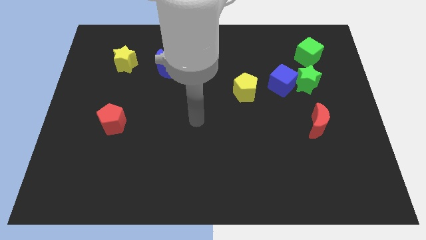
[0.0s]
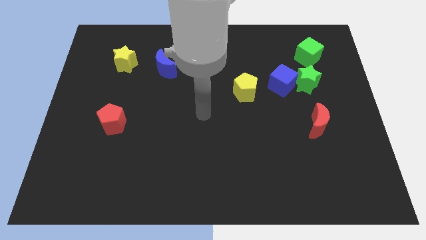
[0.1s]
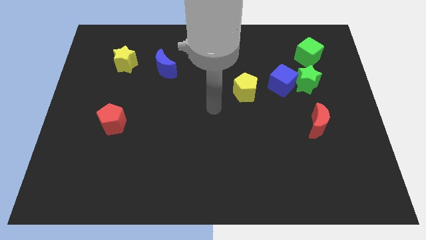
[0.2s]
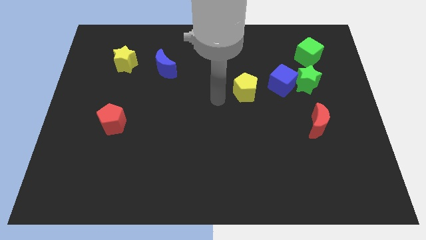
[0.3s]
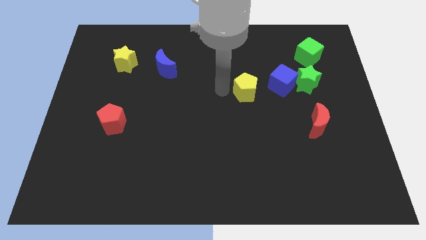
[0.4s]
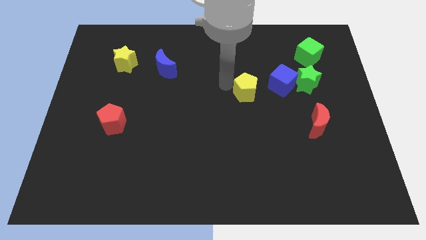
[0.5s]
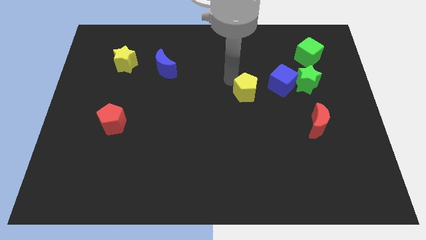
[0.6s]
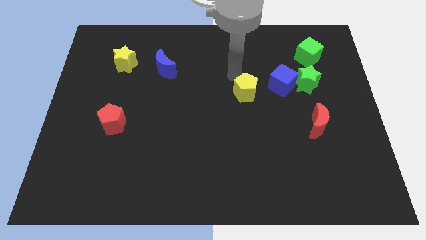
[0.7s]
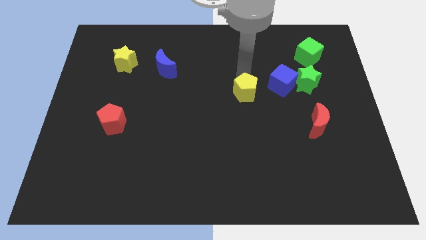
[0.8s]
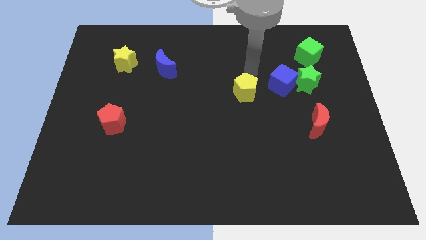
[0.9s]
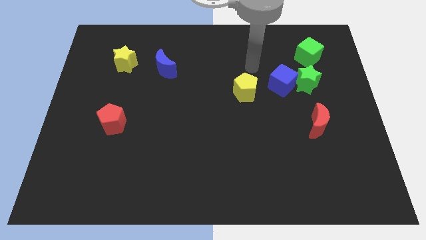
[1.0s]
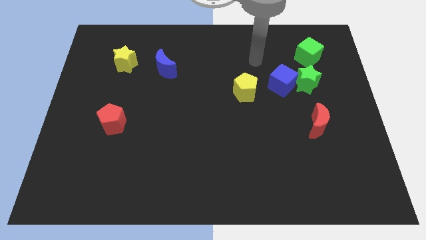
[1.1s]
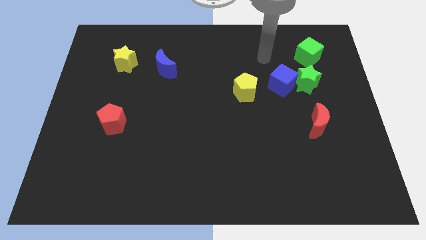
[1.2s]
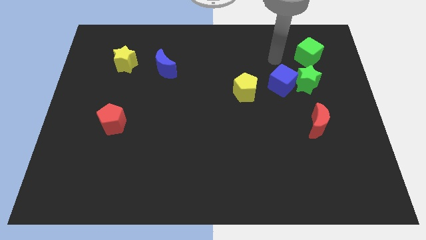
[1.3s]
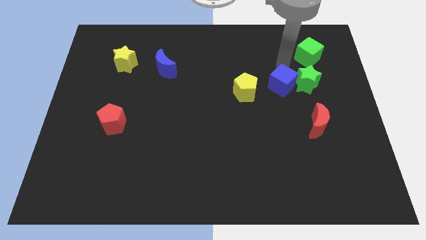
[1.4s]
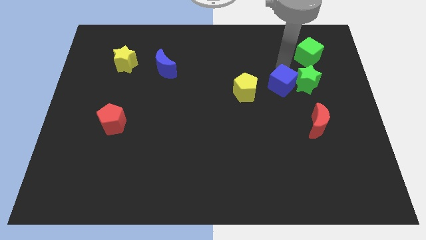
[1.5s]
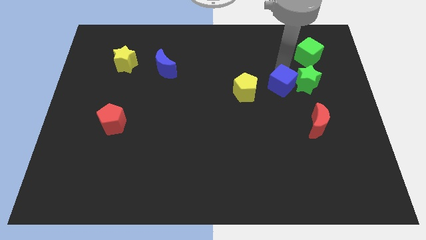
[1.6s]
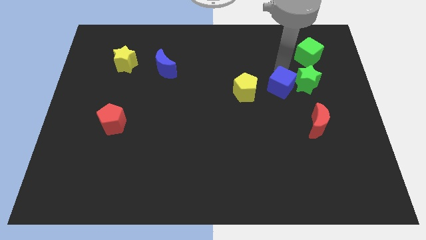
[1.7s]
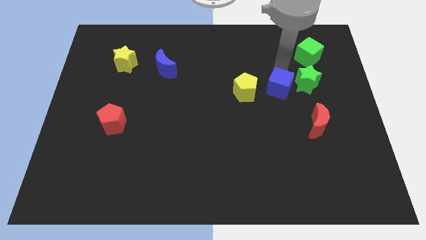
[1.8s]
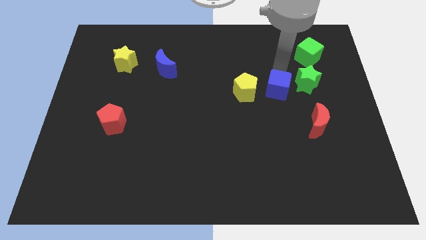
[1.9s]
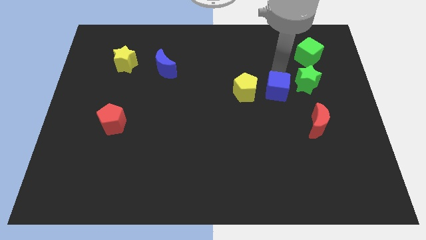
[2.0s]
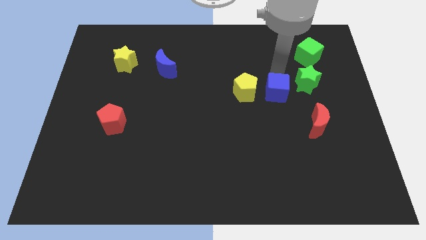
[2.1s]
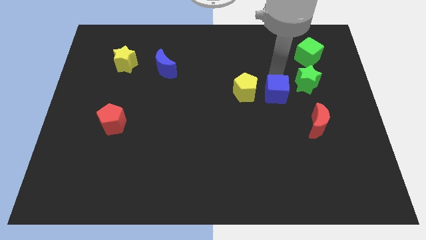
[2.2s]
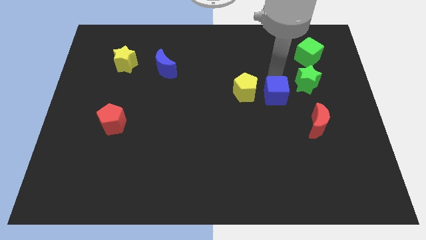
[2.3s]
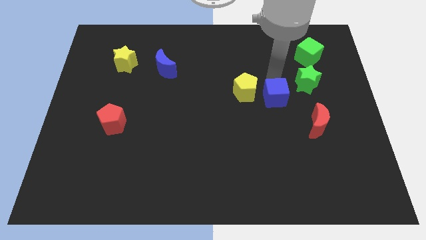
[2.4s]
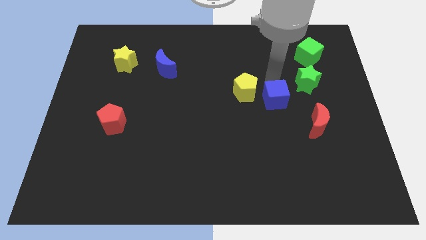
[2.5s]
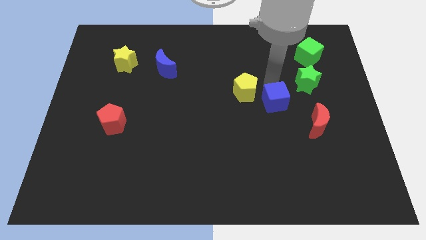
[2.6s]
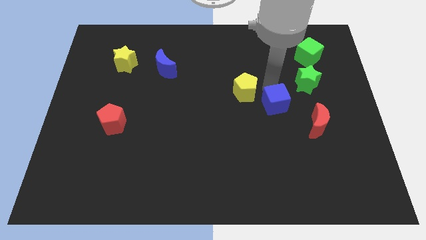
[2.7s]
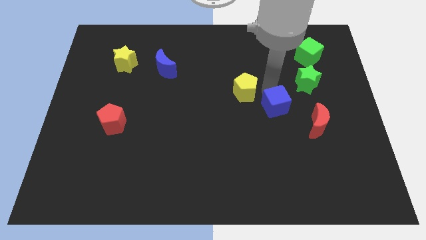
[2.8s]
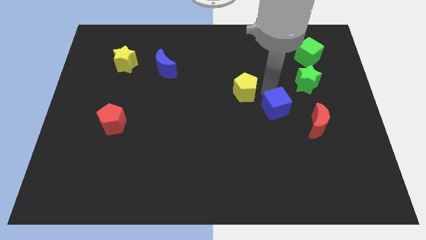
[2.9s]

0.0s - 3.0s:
move the blue cube a little downwards

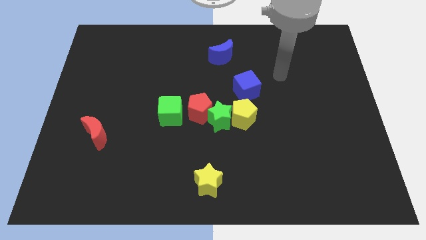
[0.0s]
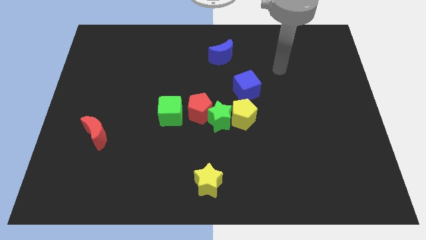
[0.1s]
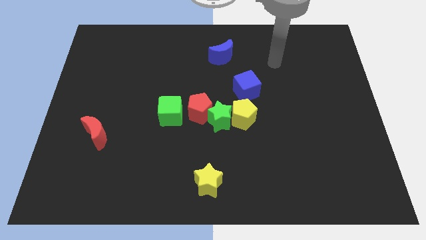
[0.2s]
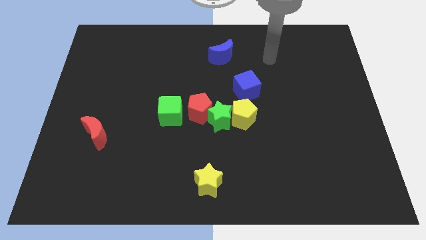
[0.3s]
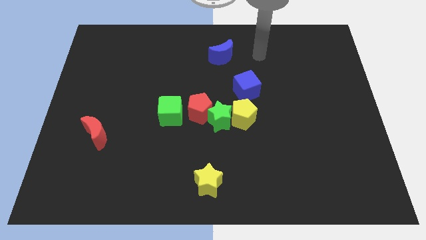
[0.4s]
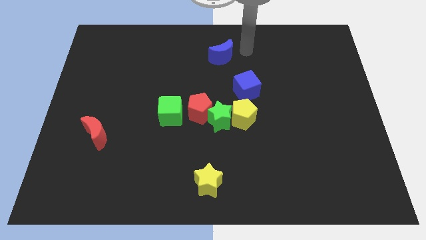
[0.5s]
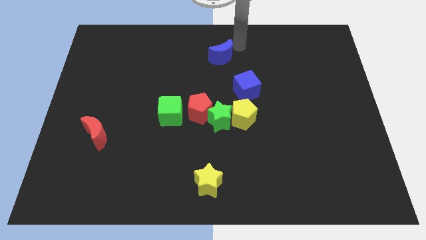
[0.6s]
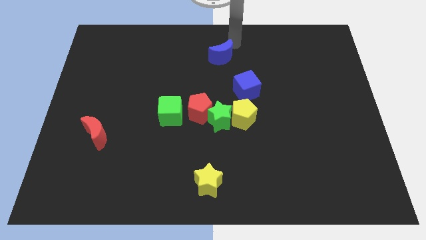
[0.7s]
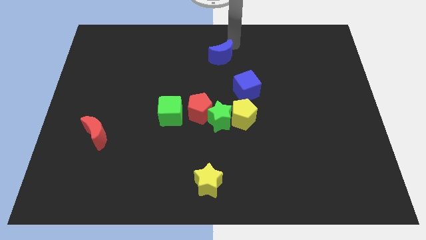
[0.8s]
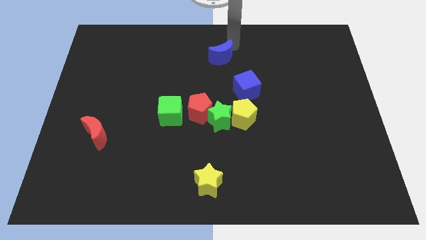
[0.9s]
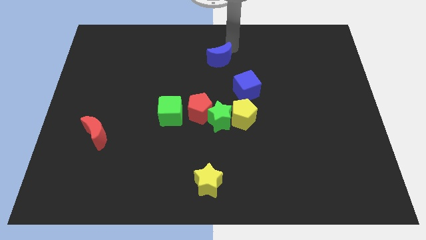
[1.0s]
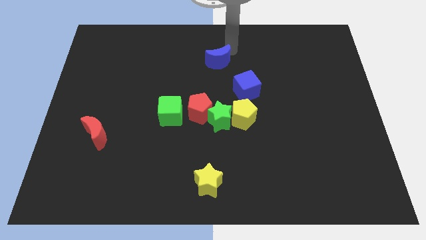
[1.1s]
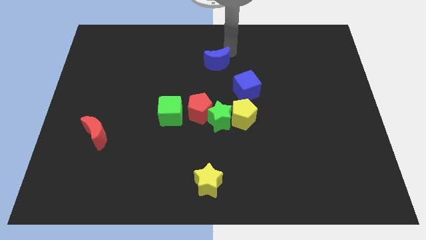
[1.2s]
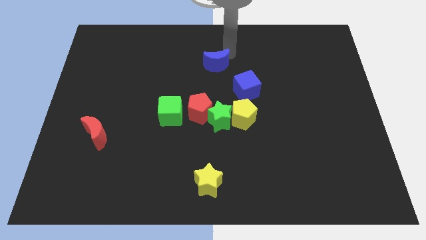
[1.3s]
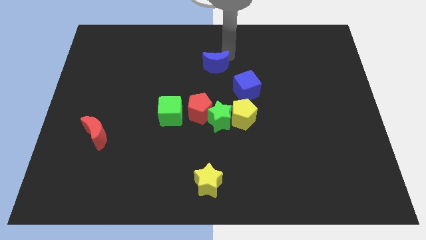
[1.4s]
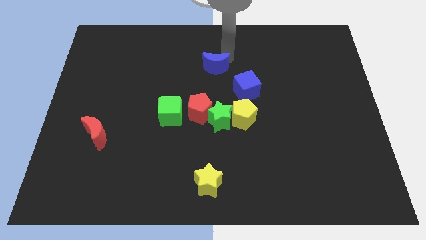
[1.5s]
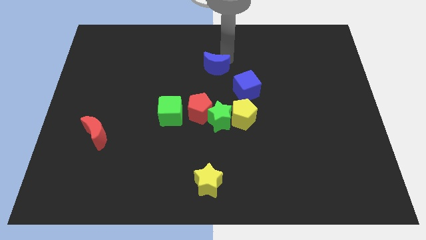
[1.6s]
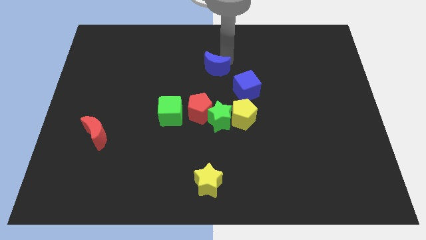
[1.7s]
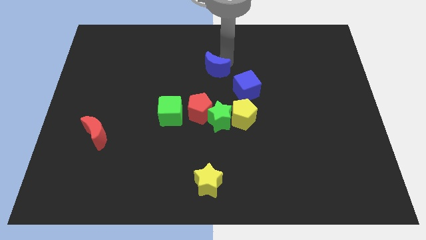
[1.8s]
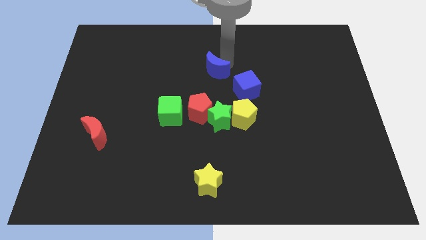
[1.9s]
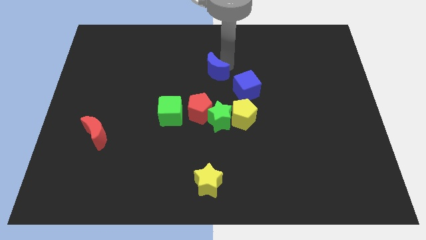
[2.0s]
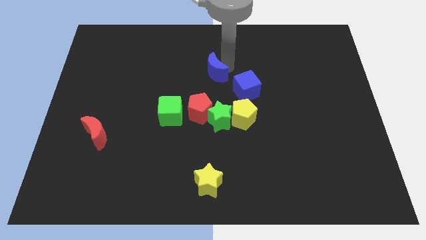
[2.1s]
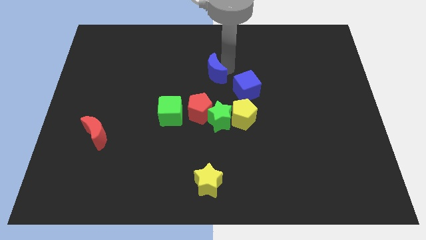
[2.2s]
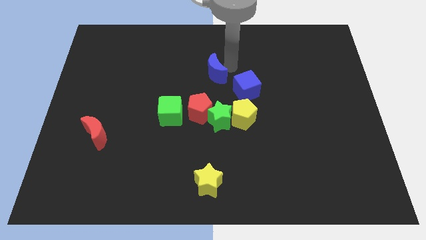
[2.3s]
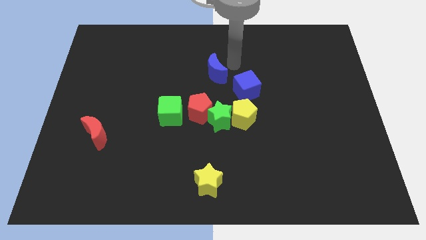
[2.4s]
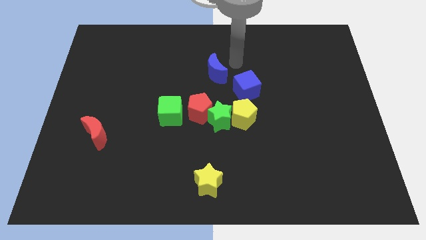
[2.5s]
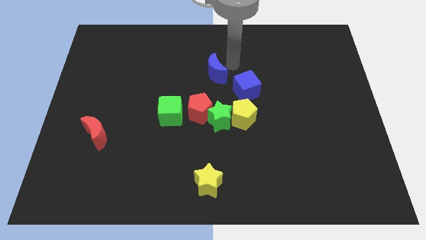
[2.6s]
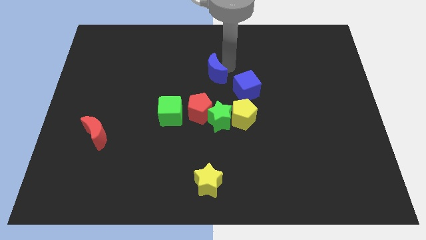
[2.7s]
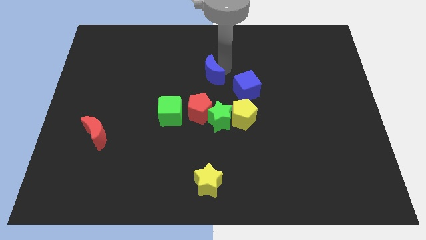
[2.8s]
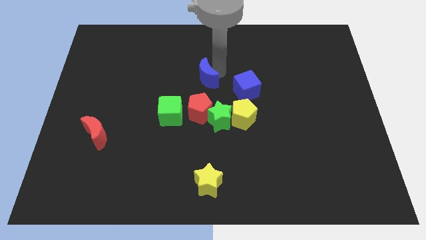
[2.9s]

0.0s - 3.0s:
push the blue moon slightly diagonally downwards and to the left

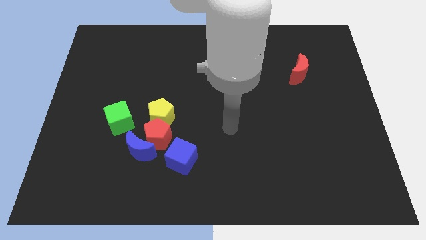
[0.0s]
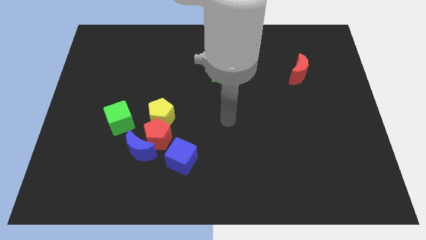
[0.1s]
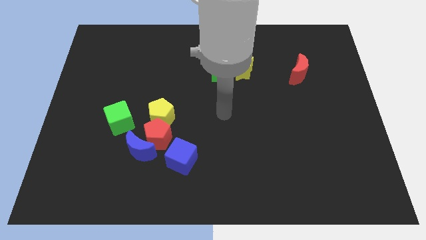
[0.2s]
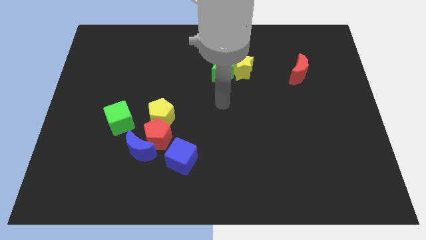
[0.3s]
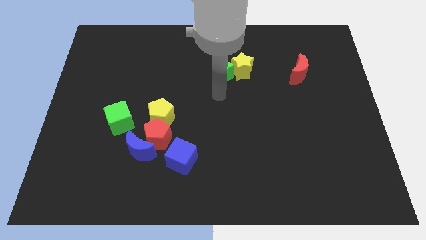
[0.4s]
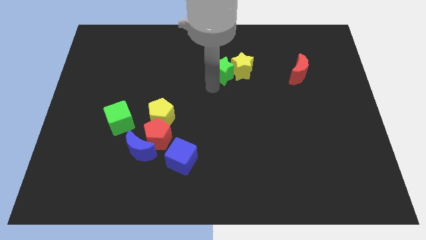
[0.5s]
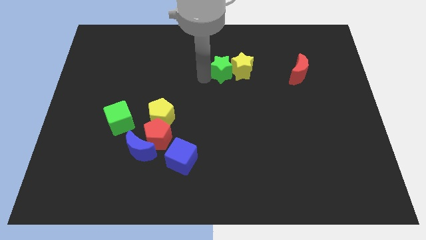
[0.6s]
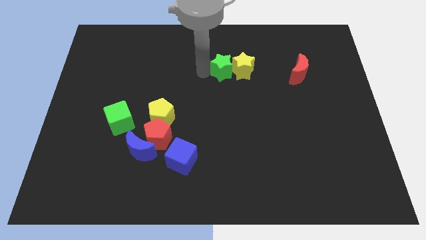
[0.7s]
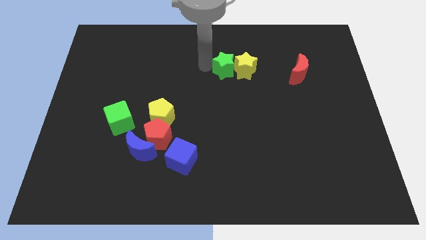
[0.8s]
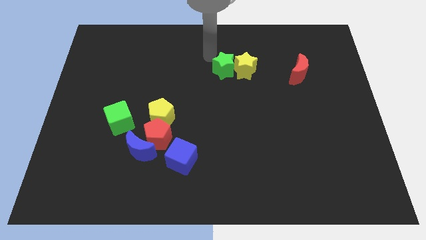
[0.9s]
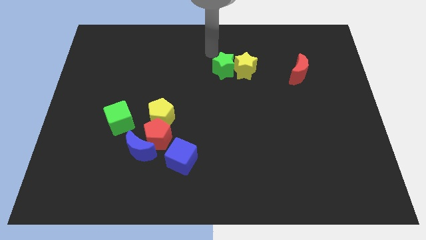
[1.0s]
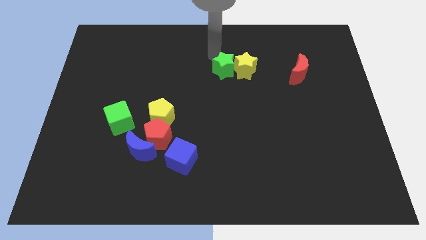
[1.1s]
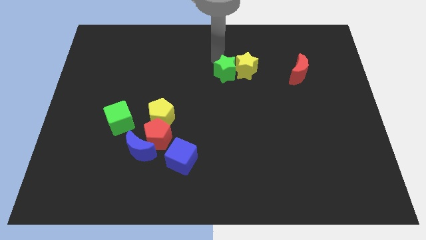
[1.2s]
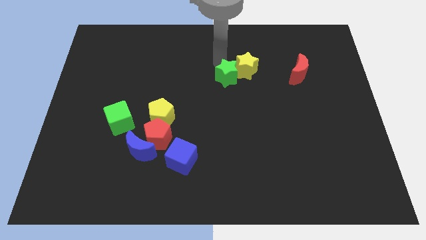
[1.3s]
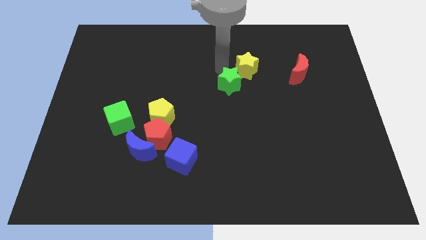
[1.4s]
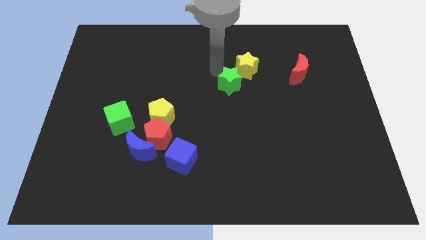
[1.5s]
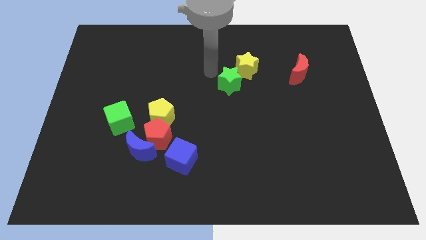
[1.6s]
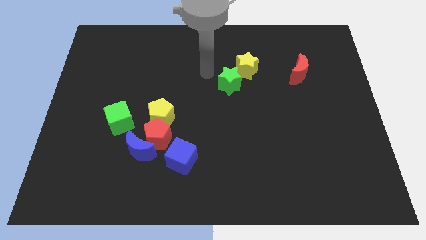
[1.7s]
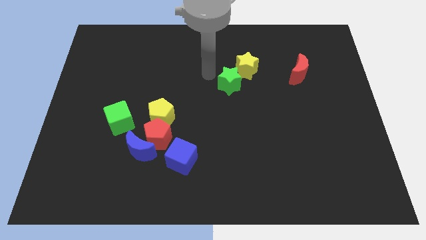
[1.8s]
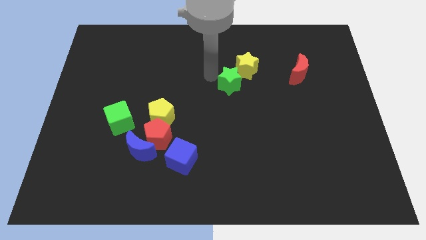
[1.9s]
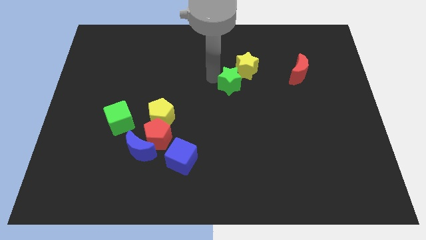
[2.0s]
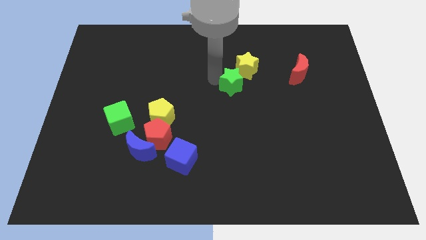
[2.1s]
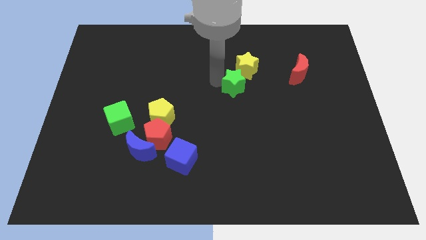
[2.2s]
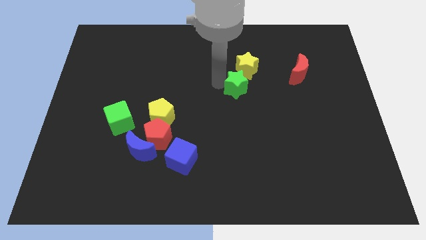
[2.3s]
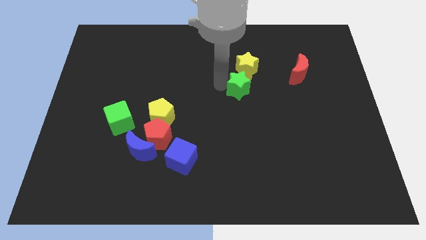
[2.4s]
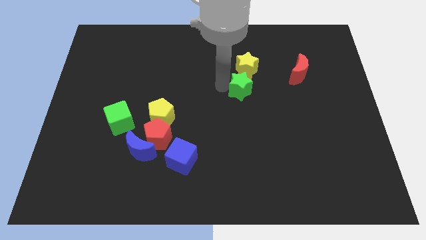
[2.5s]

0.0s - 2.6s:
push the green star slightly down and right
